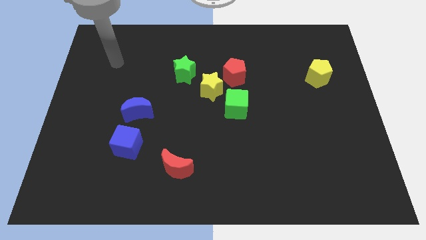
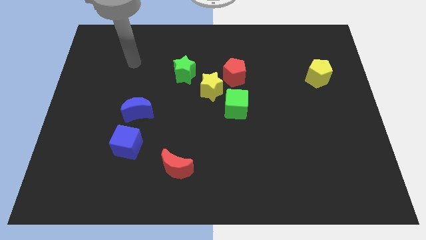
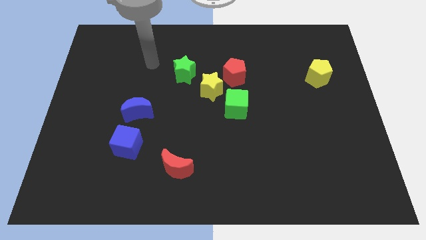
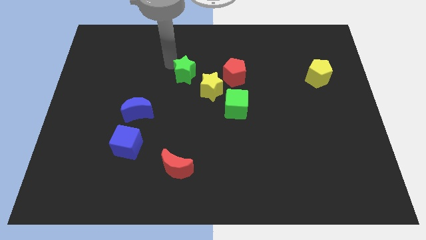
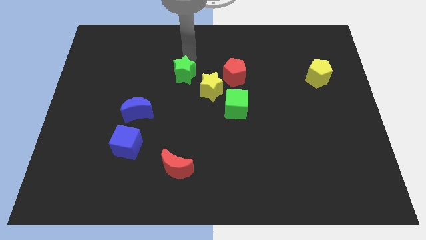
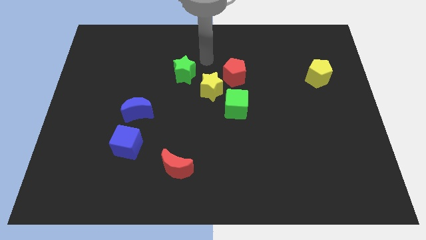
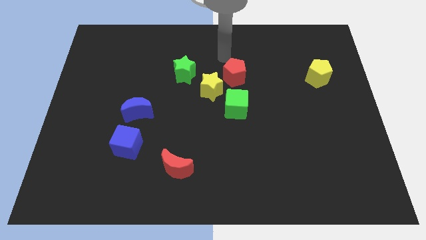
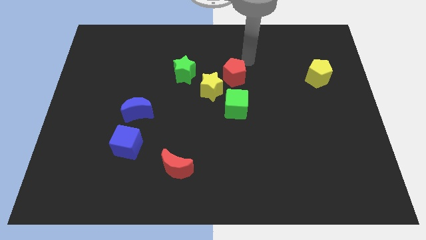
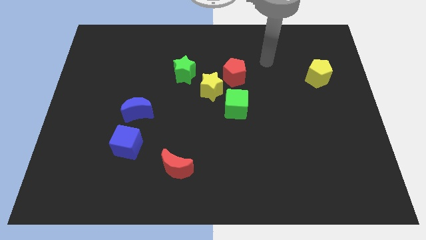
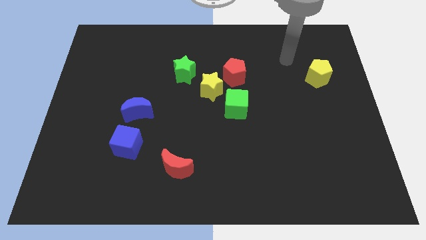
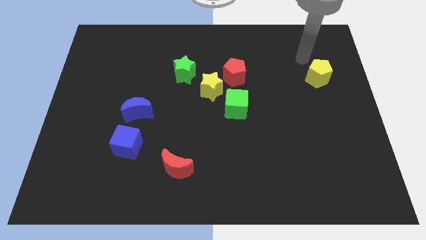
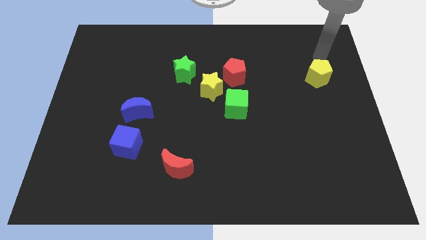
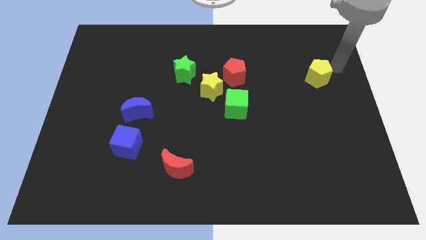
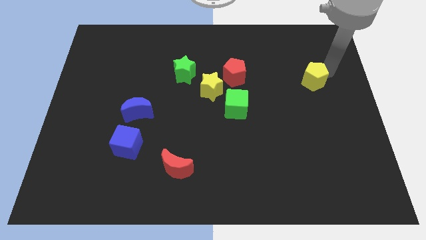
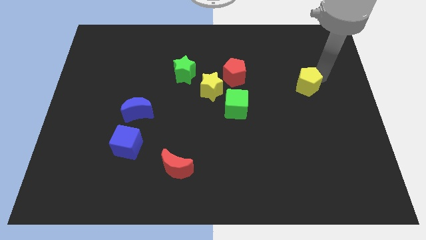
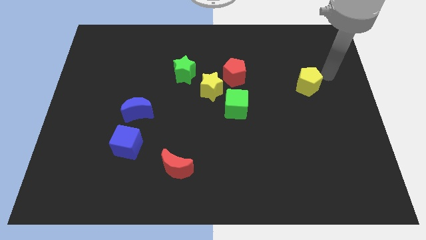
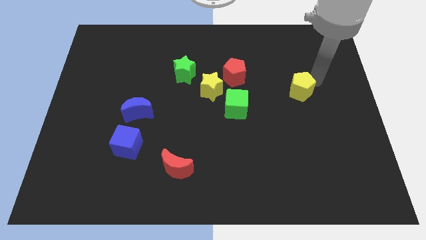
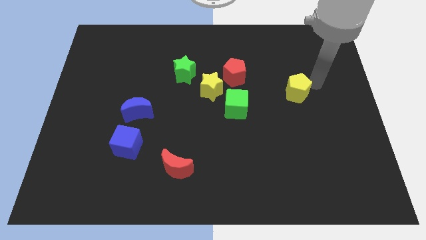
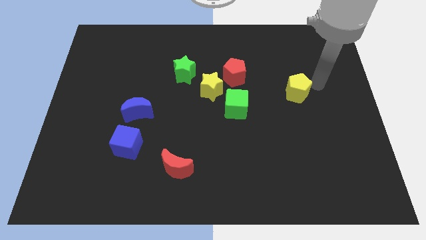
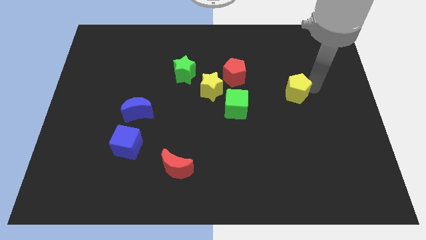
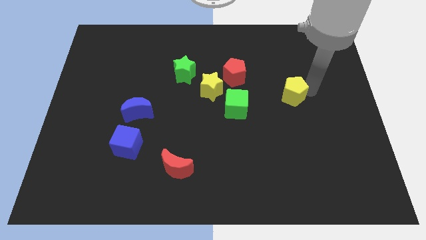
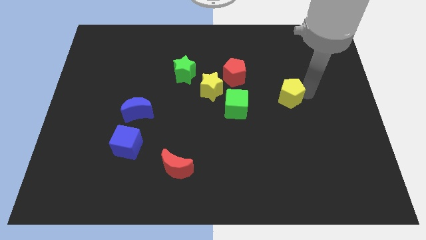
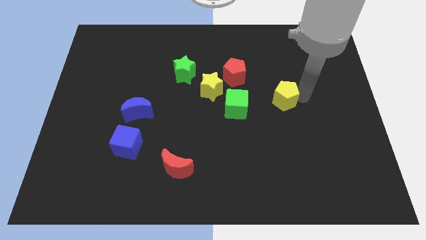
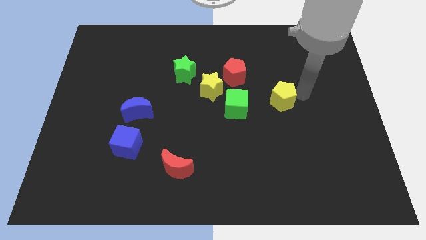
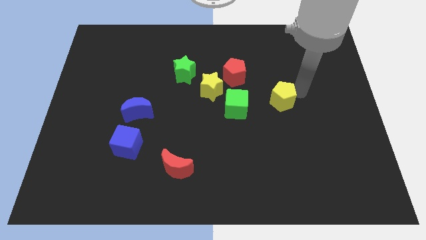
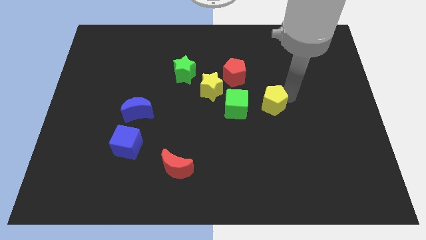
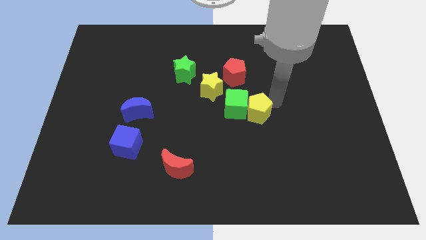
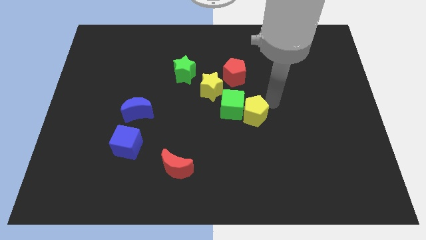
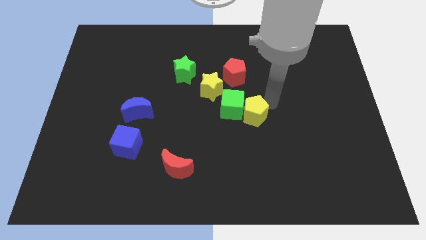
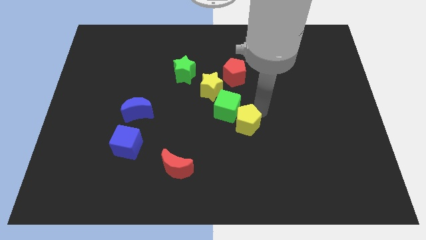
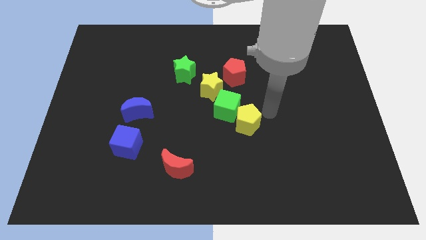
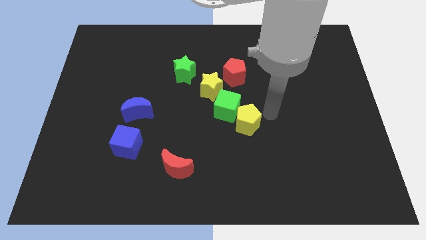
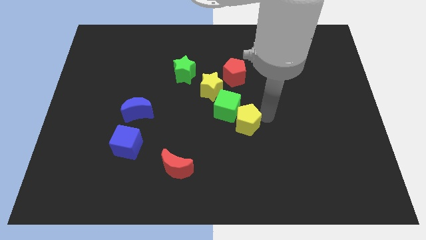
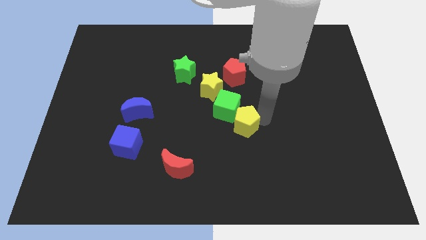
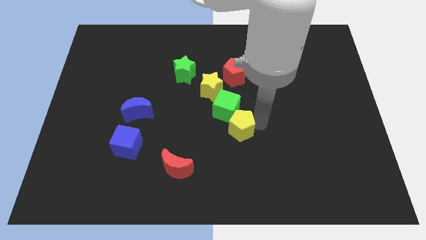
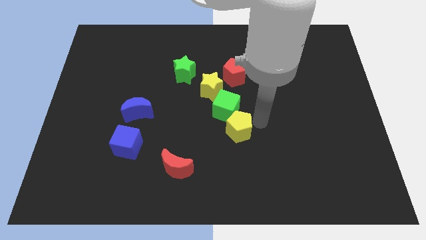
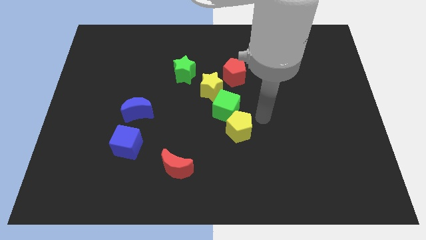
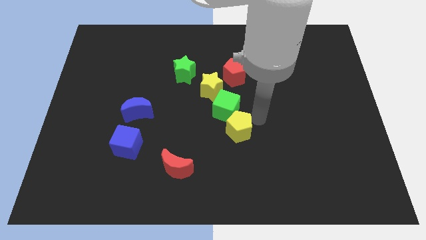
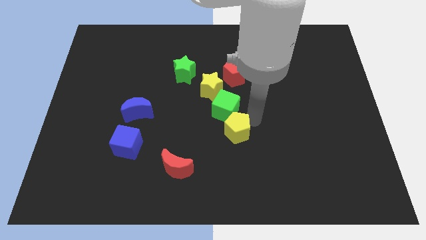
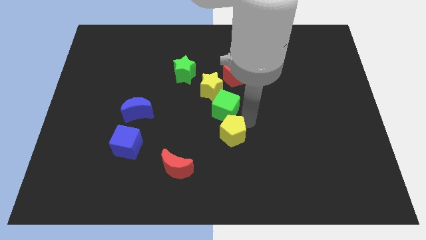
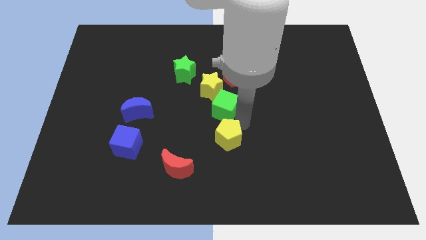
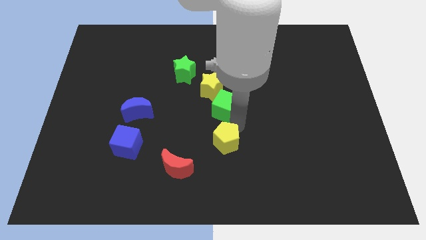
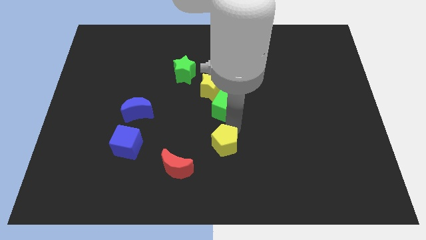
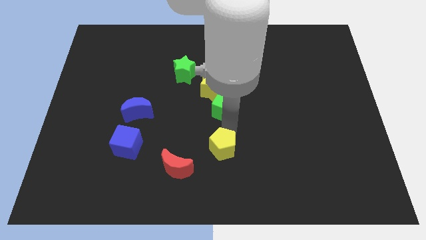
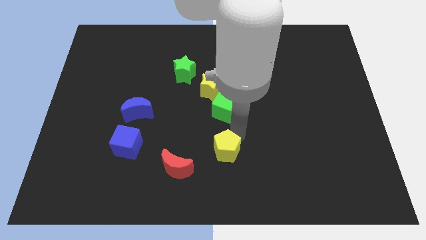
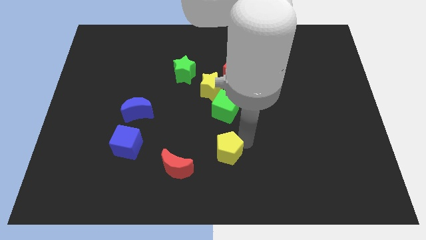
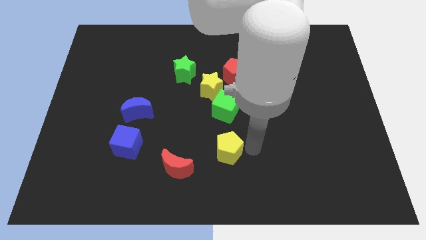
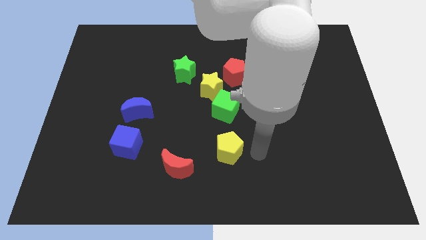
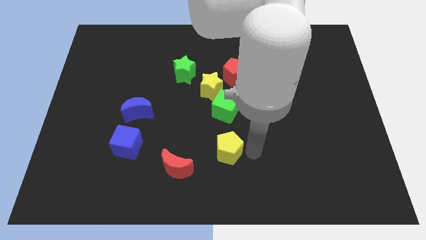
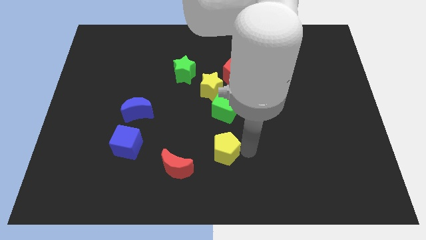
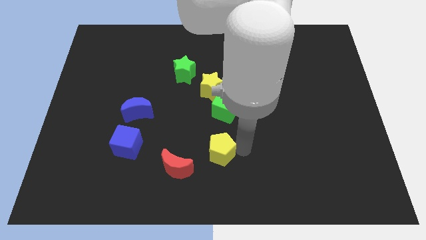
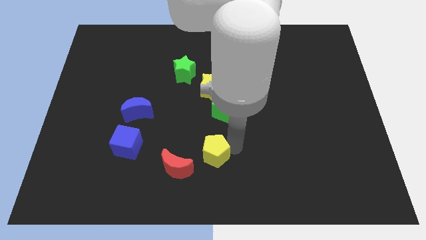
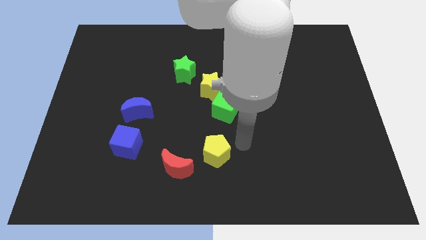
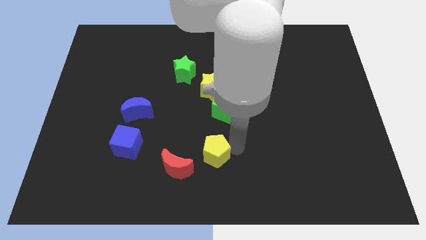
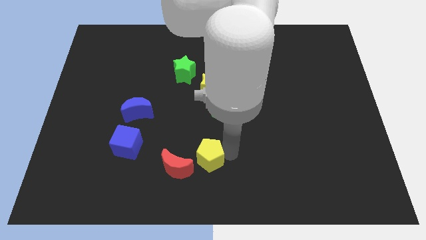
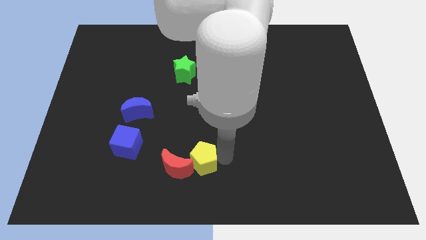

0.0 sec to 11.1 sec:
move the yellow pentagon towards the red moon

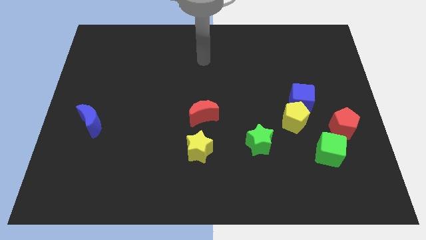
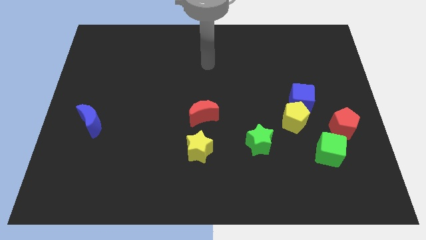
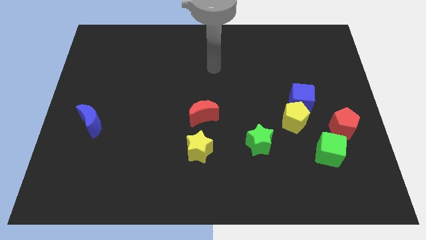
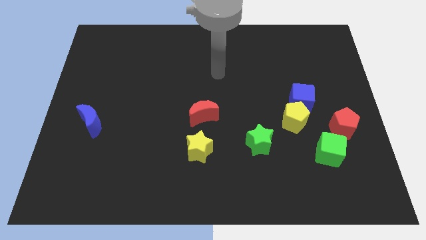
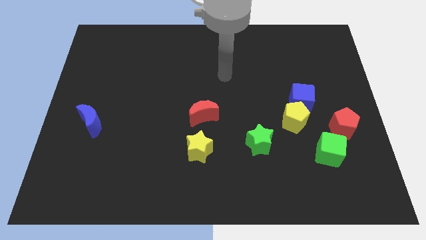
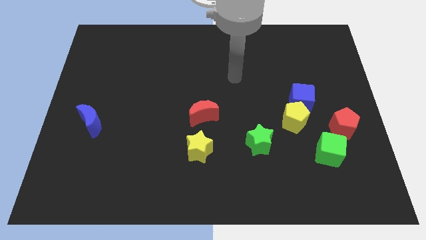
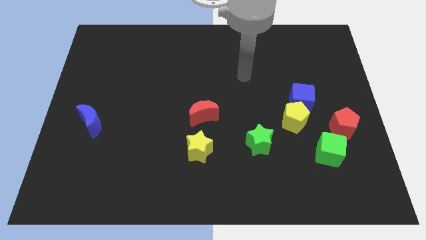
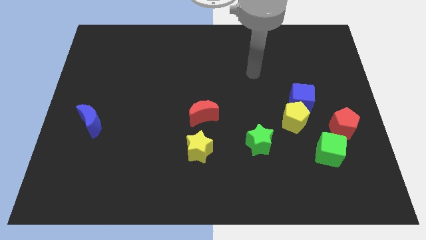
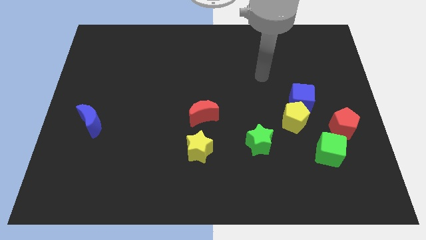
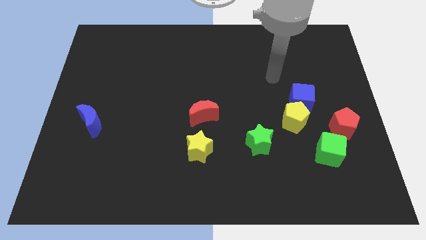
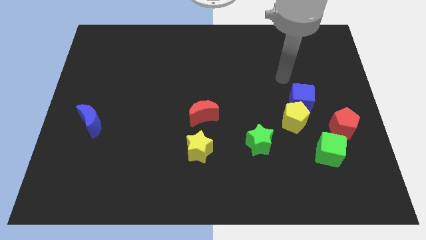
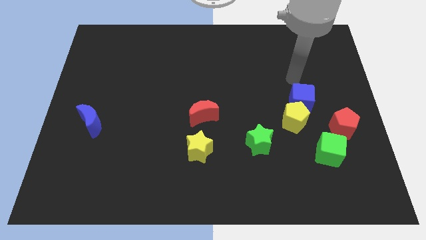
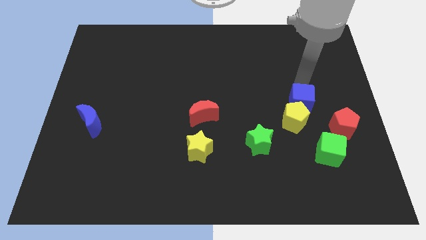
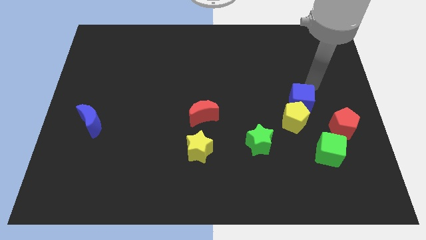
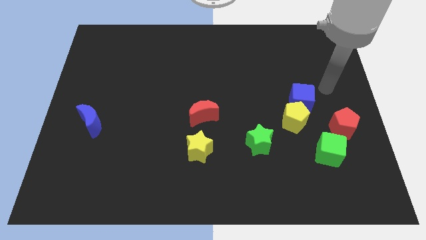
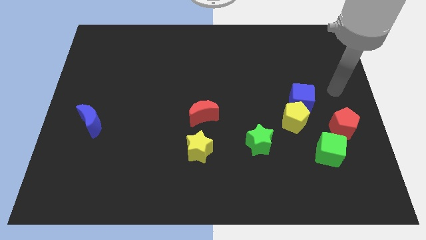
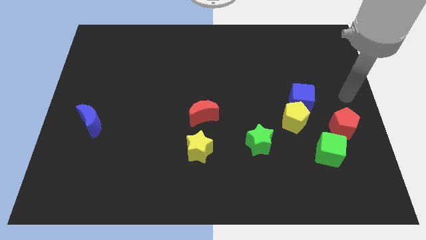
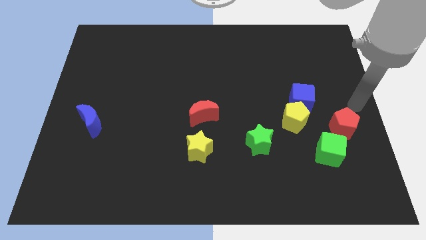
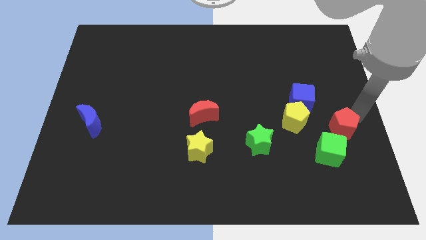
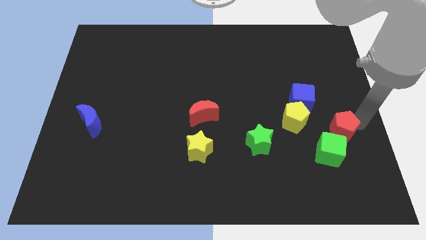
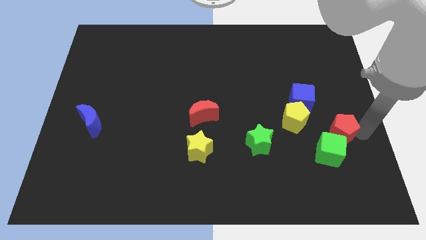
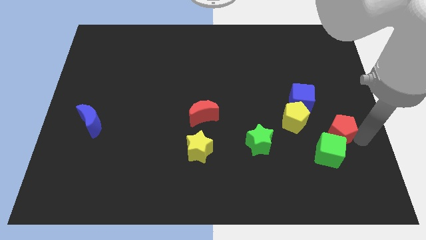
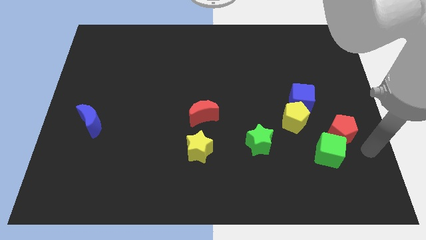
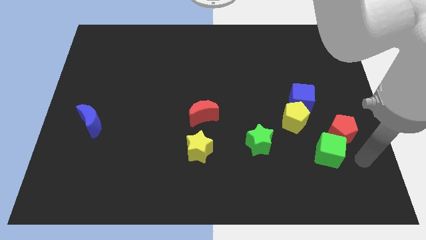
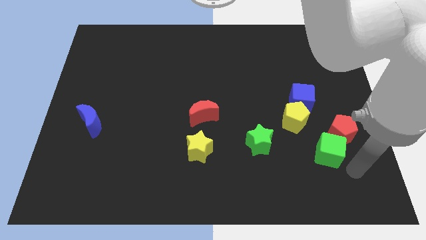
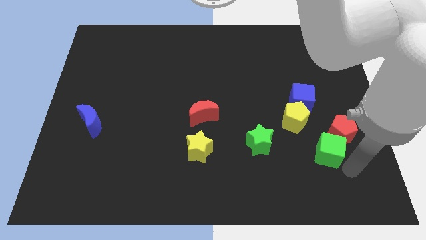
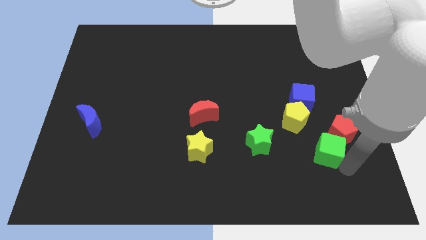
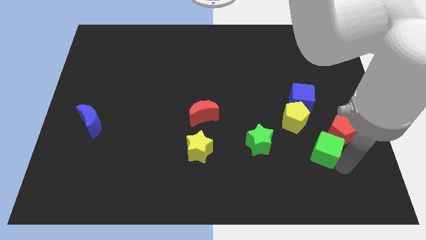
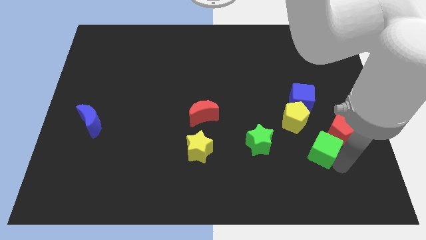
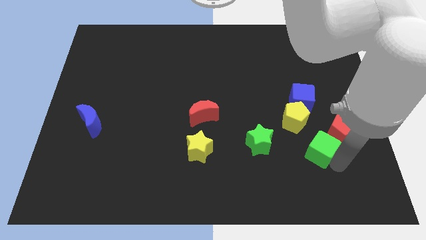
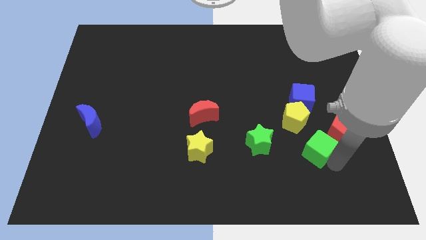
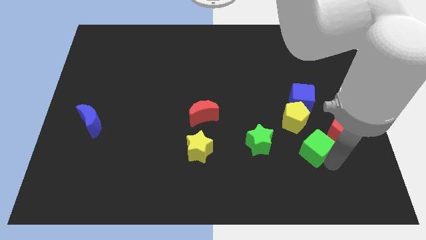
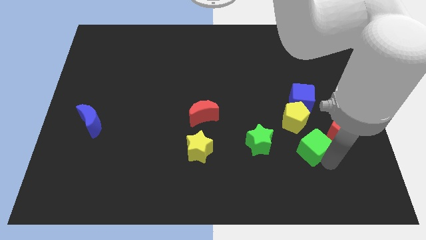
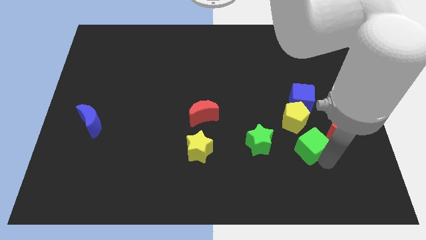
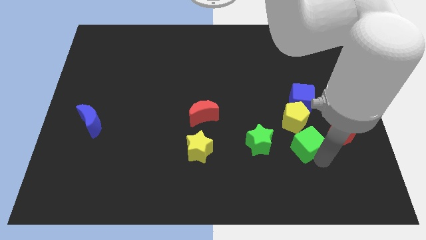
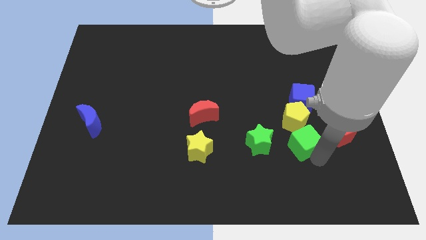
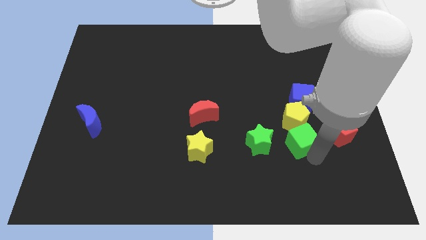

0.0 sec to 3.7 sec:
put the green cube close to the yellow pentagon
